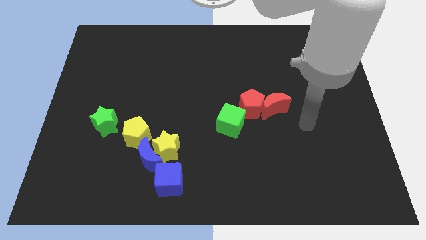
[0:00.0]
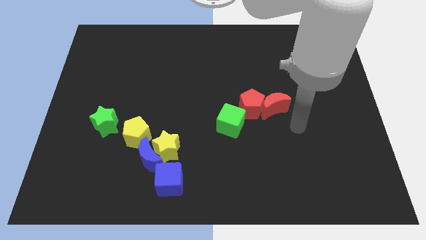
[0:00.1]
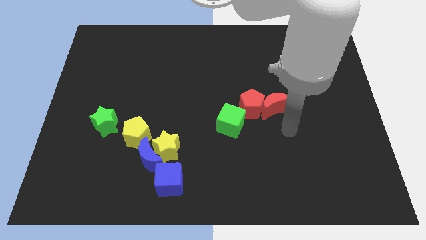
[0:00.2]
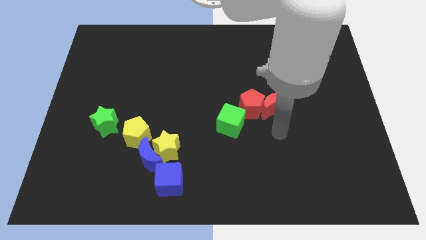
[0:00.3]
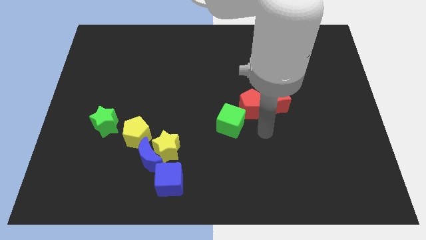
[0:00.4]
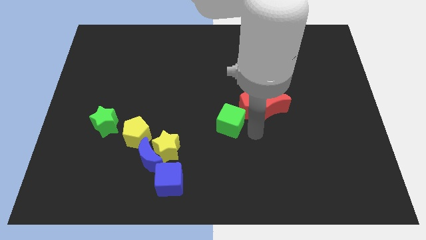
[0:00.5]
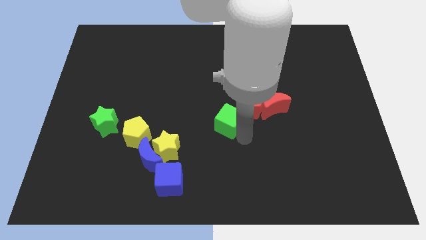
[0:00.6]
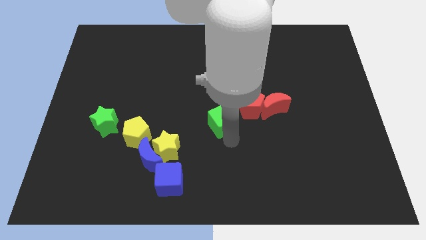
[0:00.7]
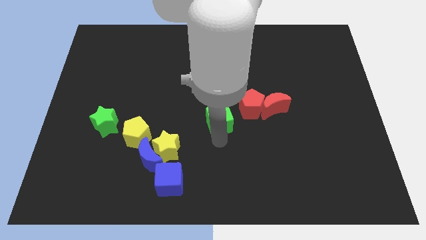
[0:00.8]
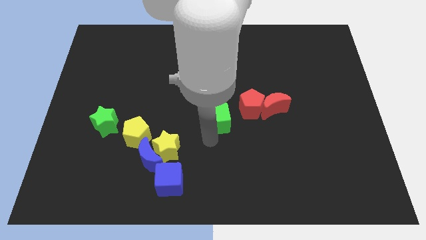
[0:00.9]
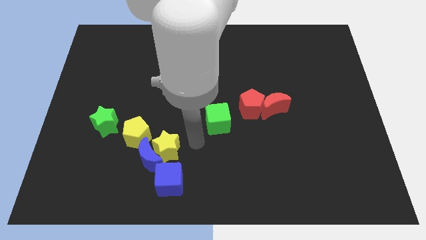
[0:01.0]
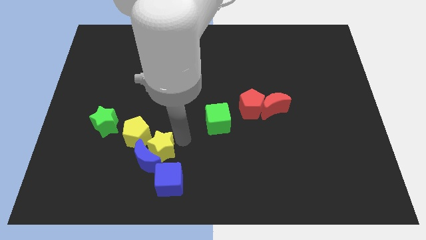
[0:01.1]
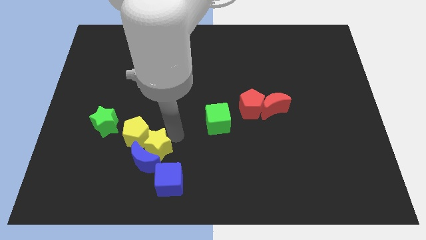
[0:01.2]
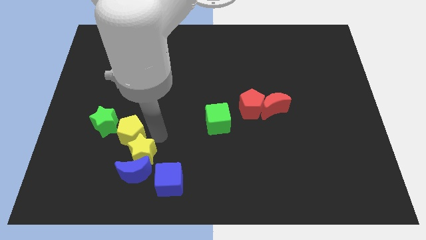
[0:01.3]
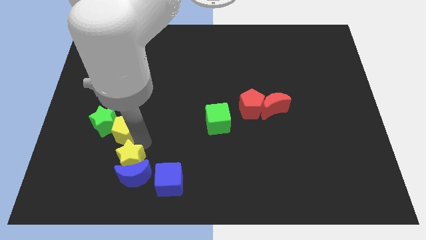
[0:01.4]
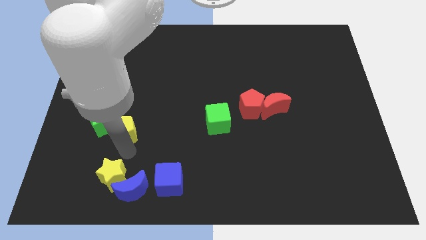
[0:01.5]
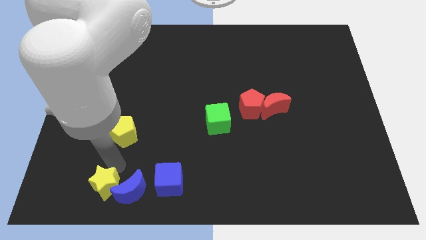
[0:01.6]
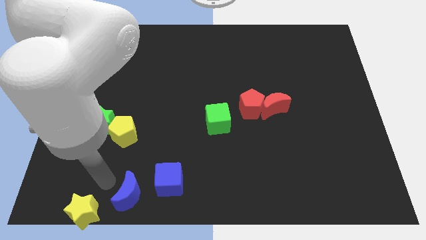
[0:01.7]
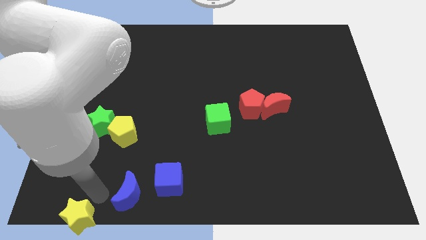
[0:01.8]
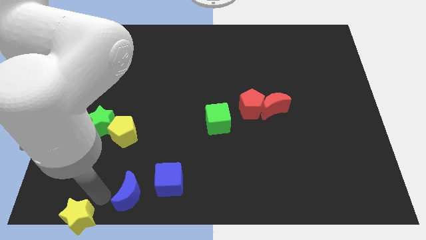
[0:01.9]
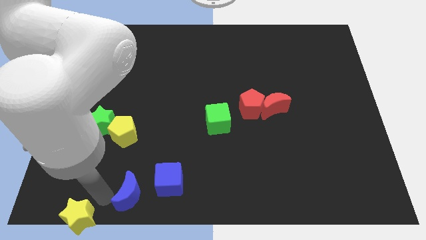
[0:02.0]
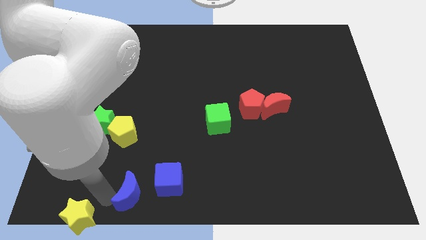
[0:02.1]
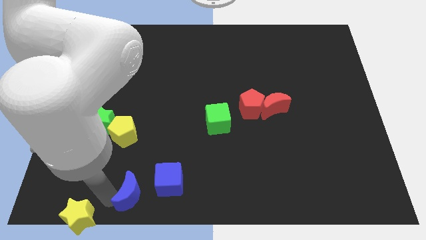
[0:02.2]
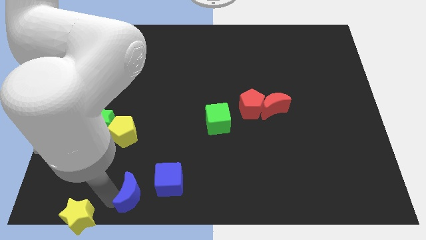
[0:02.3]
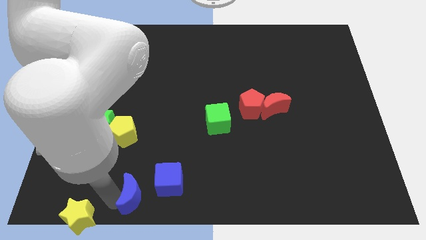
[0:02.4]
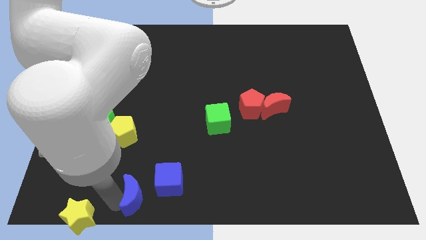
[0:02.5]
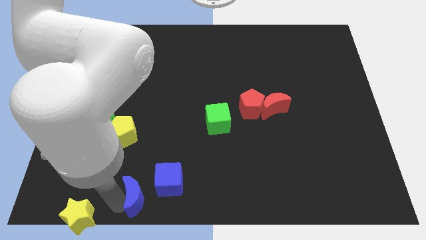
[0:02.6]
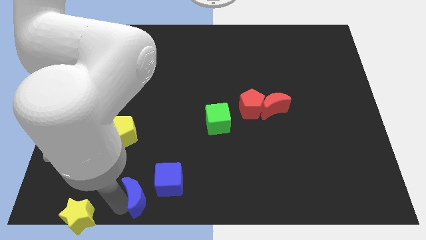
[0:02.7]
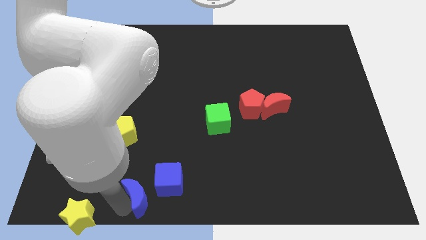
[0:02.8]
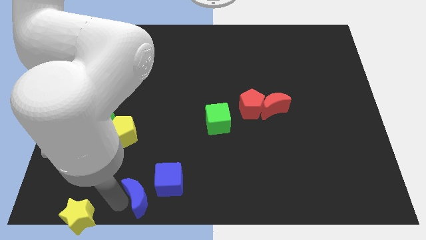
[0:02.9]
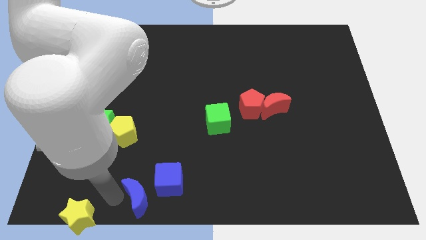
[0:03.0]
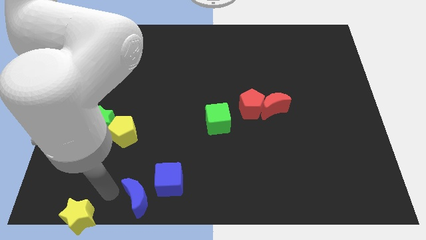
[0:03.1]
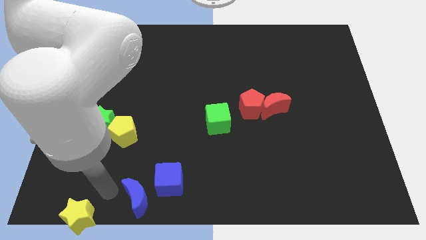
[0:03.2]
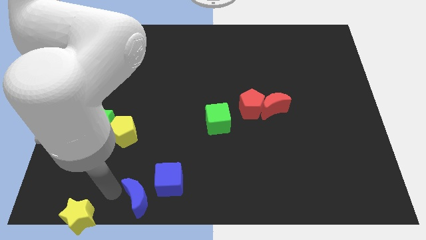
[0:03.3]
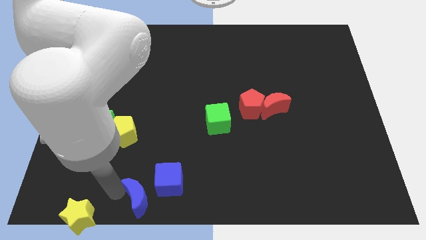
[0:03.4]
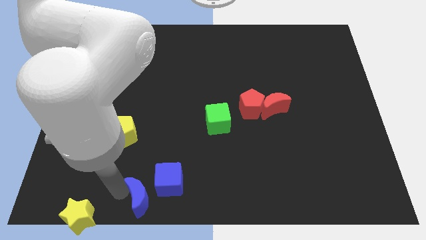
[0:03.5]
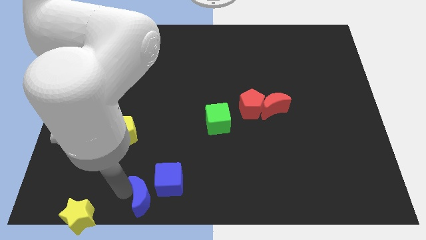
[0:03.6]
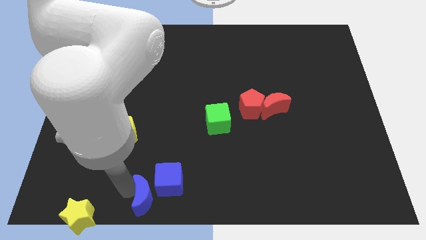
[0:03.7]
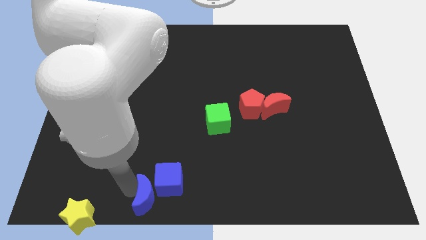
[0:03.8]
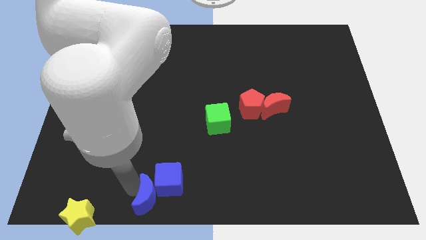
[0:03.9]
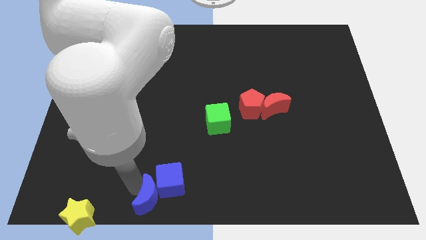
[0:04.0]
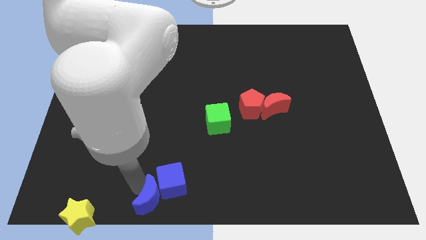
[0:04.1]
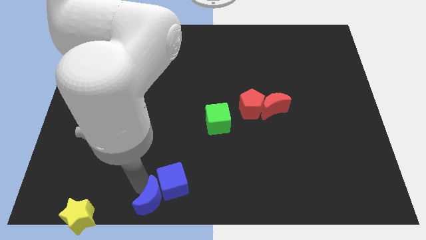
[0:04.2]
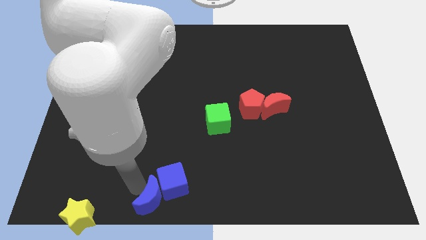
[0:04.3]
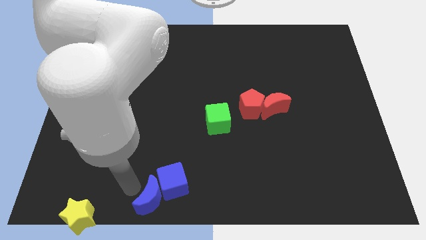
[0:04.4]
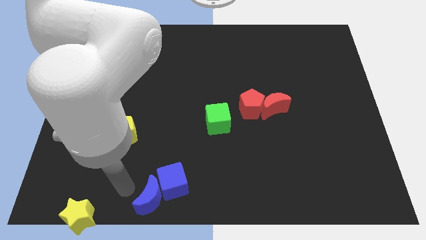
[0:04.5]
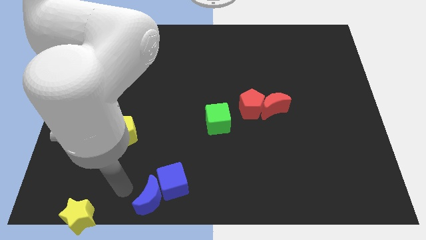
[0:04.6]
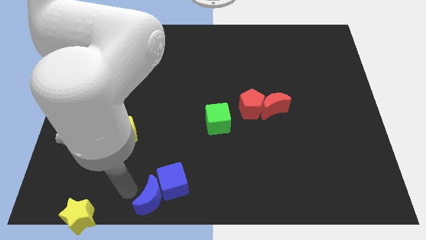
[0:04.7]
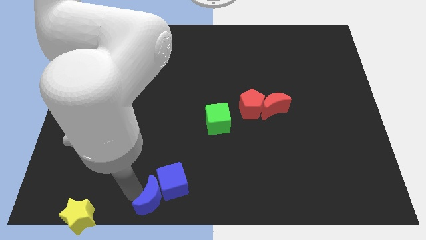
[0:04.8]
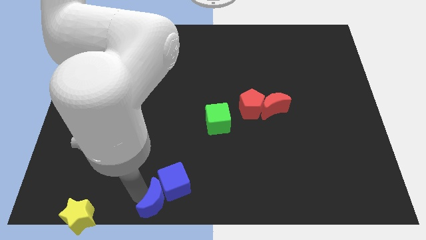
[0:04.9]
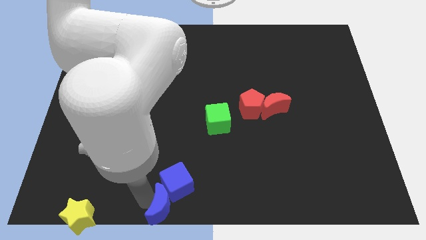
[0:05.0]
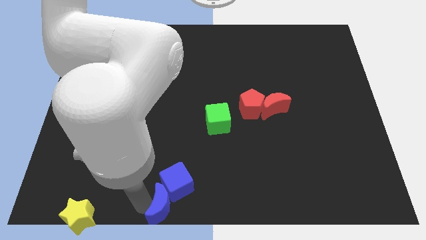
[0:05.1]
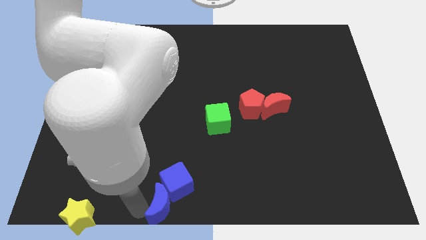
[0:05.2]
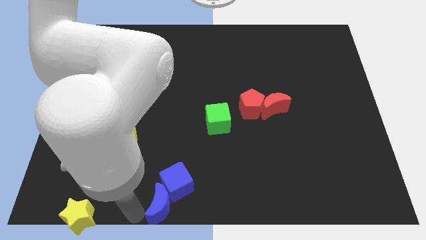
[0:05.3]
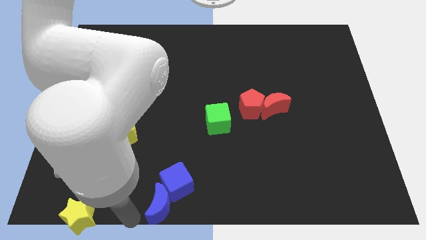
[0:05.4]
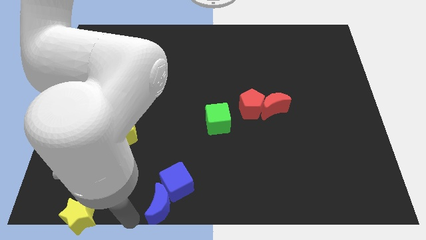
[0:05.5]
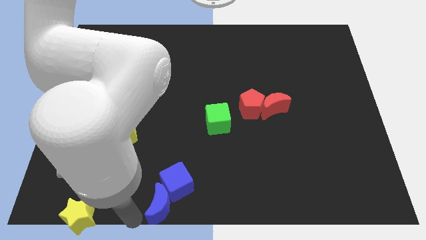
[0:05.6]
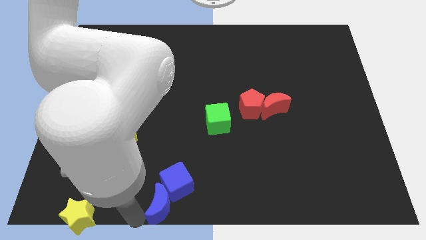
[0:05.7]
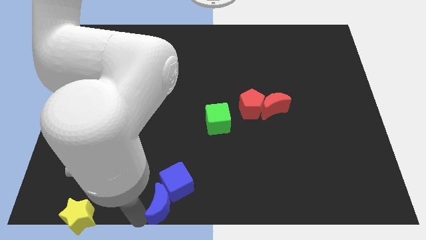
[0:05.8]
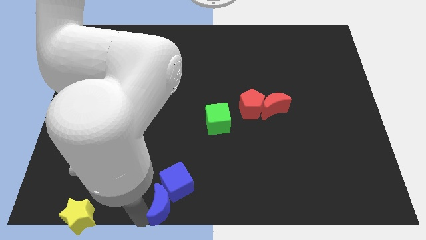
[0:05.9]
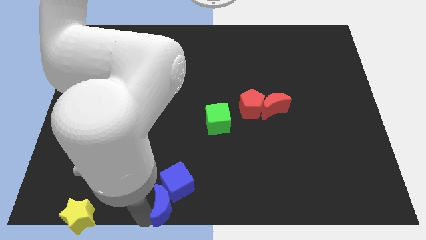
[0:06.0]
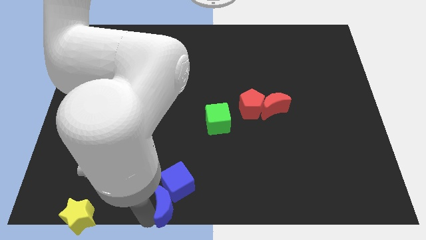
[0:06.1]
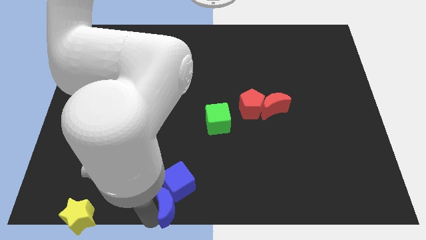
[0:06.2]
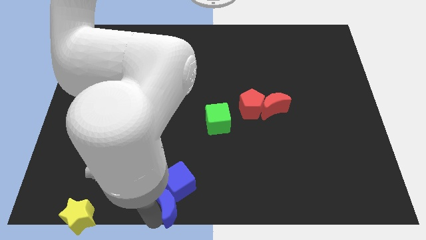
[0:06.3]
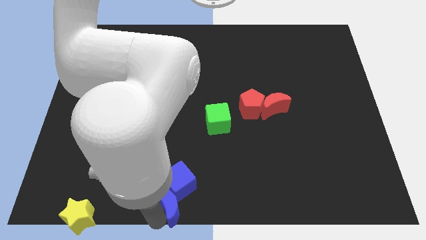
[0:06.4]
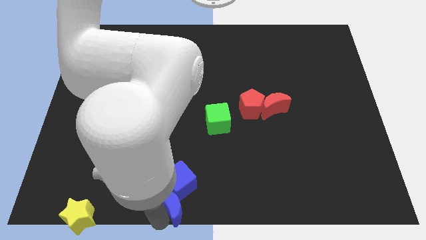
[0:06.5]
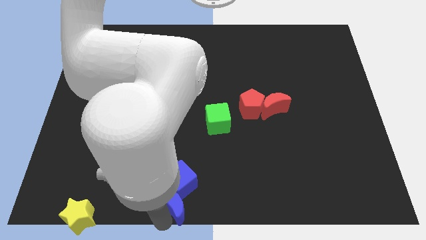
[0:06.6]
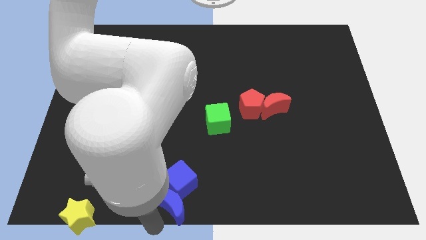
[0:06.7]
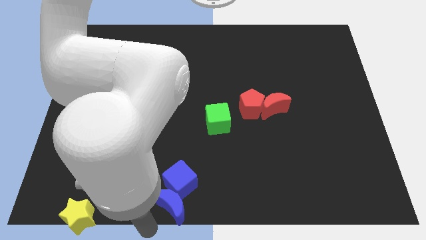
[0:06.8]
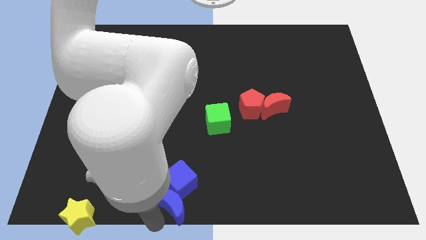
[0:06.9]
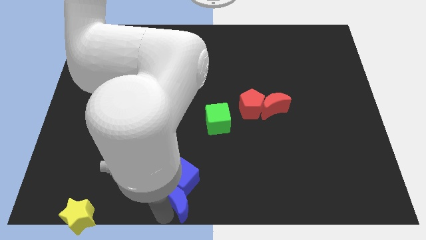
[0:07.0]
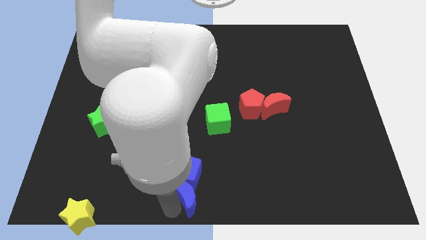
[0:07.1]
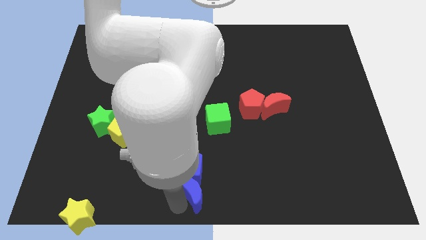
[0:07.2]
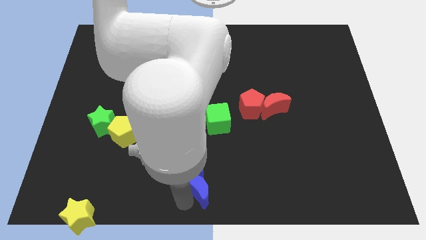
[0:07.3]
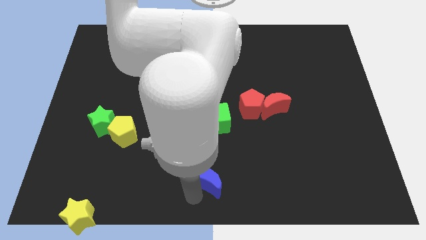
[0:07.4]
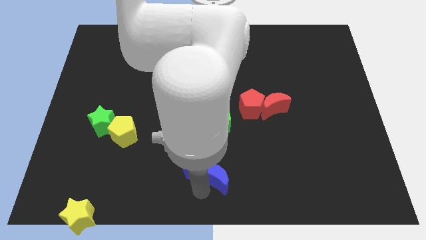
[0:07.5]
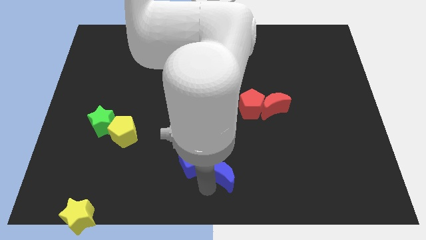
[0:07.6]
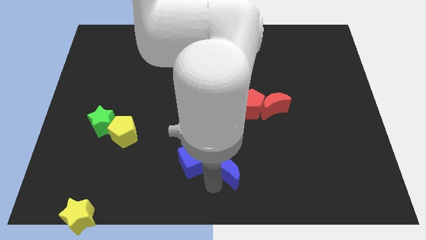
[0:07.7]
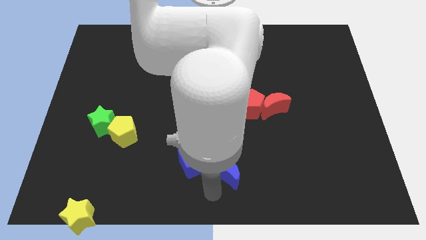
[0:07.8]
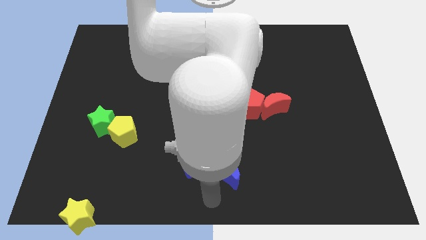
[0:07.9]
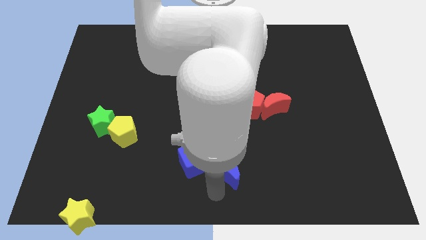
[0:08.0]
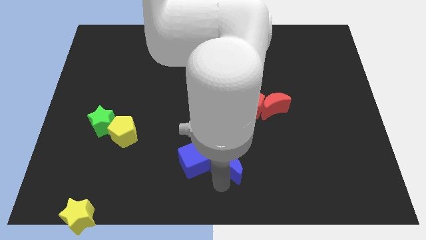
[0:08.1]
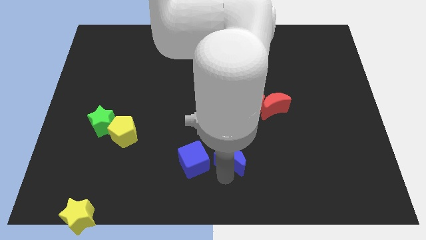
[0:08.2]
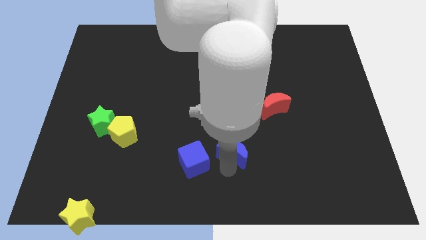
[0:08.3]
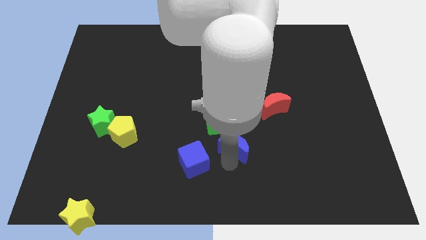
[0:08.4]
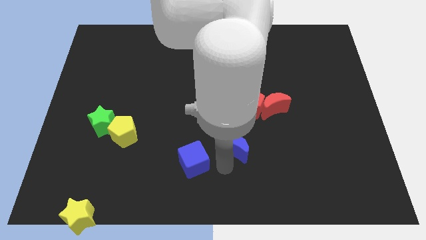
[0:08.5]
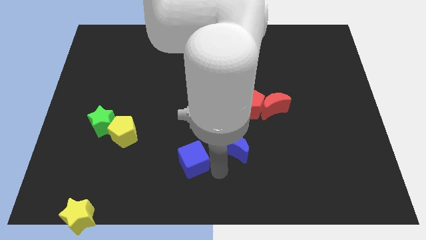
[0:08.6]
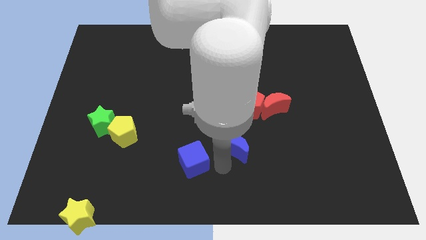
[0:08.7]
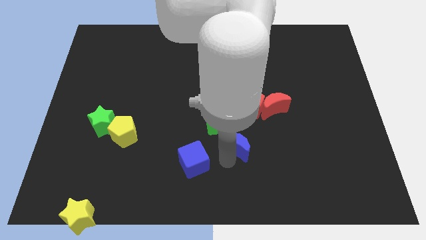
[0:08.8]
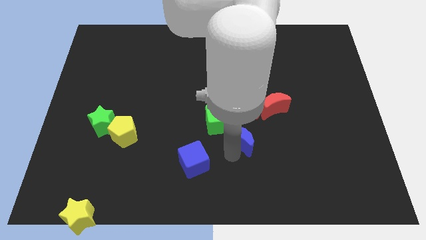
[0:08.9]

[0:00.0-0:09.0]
slide the blue moon to the bottom left side of the red moon
